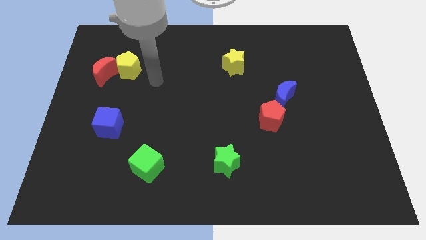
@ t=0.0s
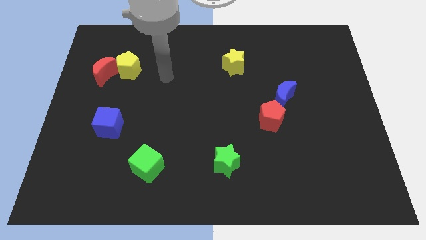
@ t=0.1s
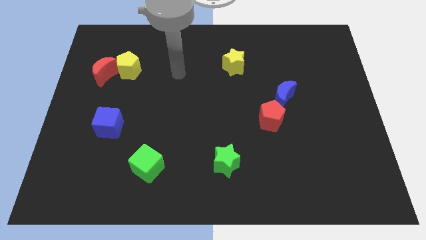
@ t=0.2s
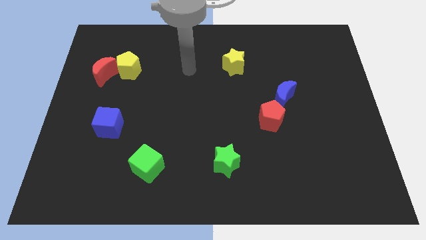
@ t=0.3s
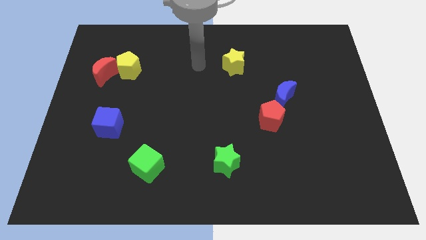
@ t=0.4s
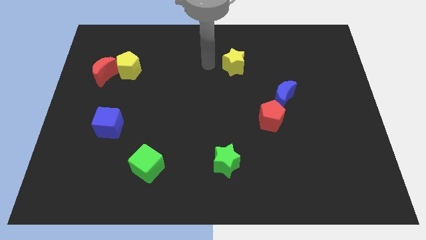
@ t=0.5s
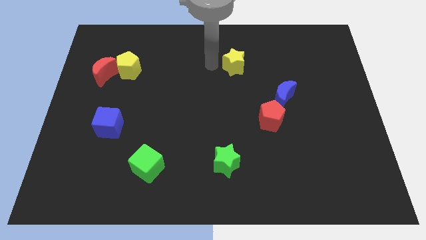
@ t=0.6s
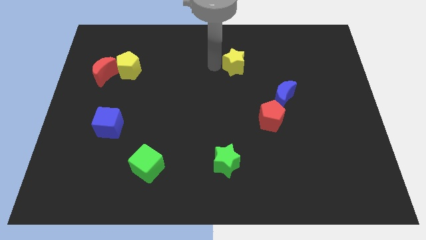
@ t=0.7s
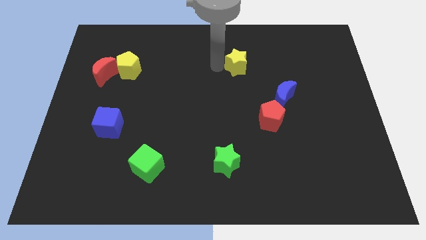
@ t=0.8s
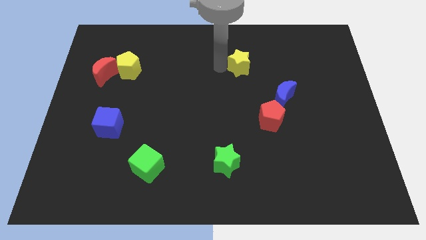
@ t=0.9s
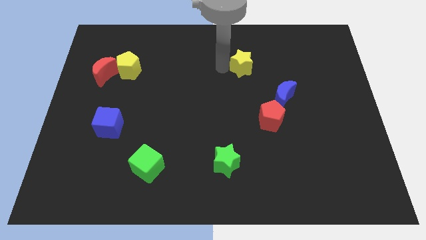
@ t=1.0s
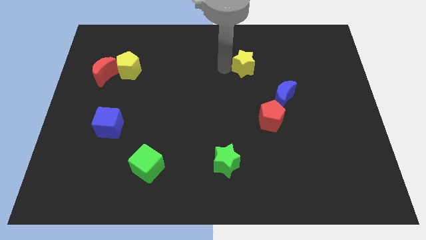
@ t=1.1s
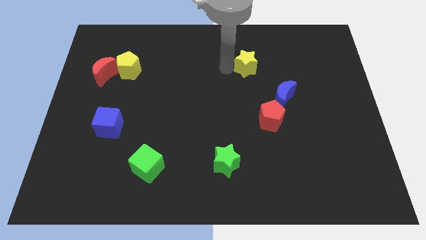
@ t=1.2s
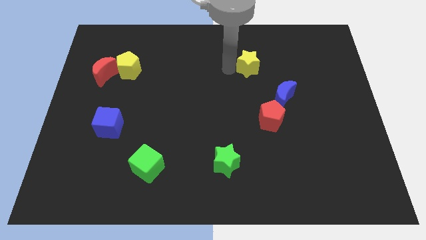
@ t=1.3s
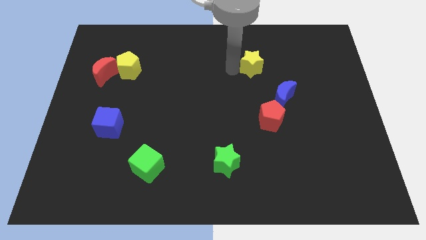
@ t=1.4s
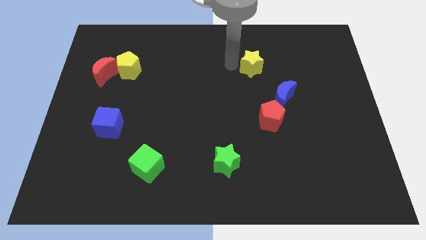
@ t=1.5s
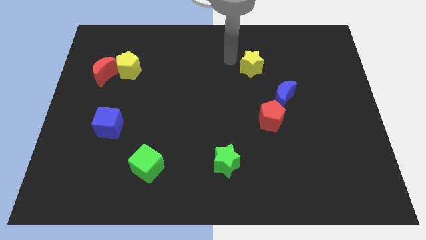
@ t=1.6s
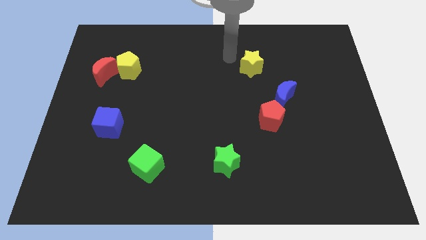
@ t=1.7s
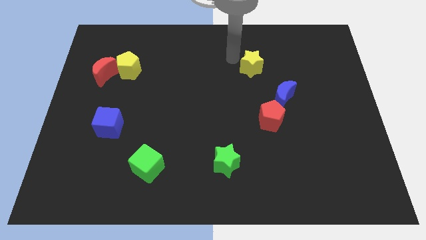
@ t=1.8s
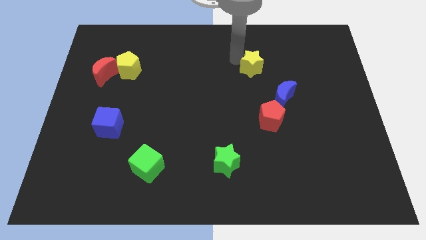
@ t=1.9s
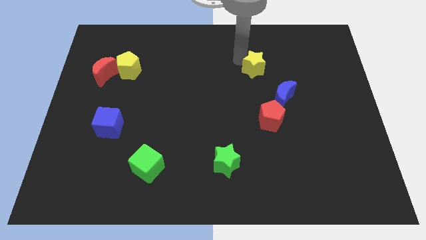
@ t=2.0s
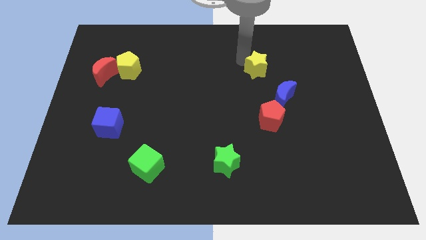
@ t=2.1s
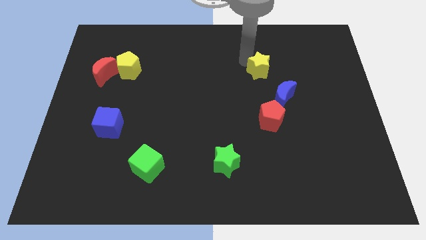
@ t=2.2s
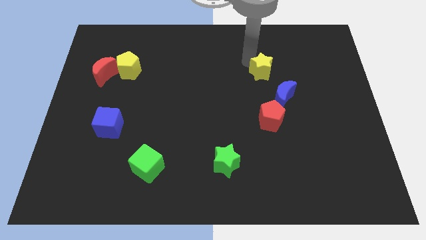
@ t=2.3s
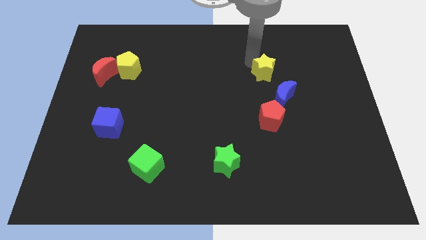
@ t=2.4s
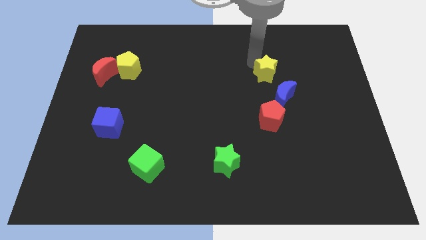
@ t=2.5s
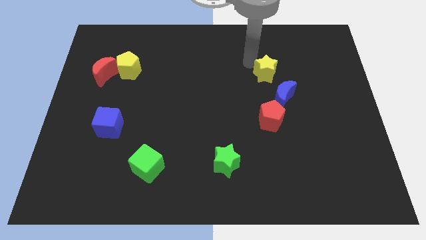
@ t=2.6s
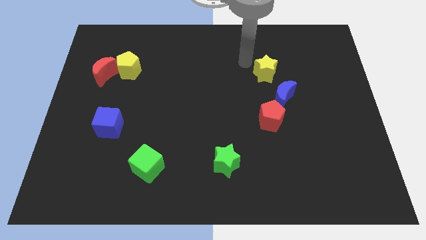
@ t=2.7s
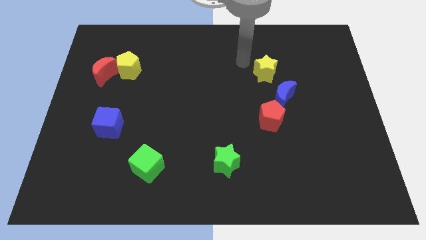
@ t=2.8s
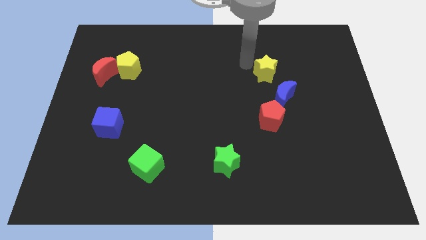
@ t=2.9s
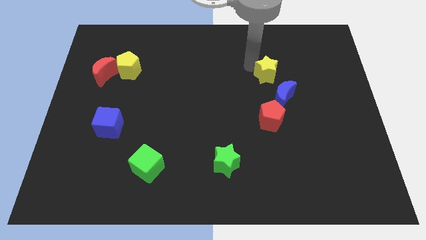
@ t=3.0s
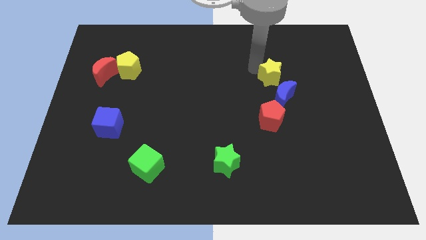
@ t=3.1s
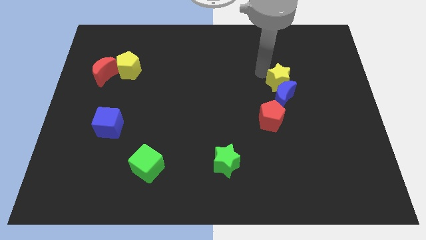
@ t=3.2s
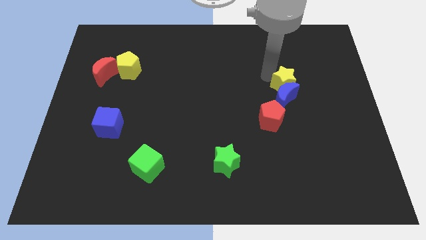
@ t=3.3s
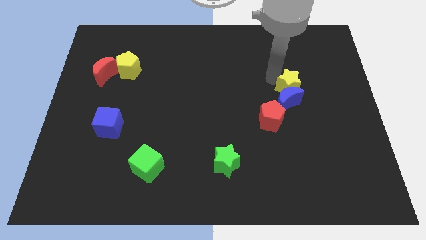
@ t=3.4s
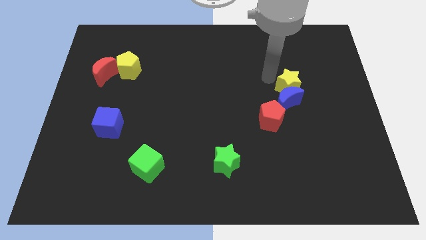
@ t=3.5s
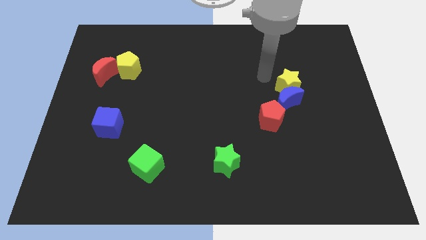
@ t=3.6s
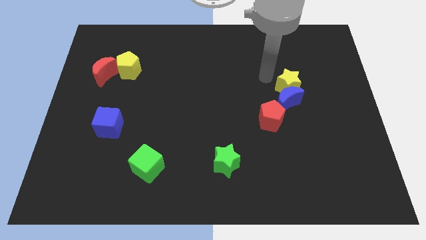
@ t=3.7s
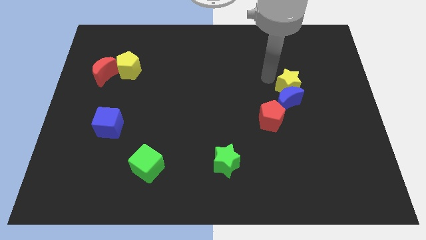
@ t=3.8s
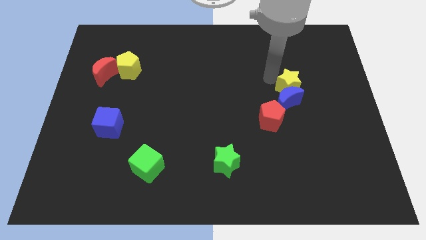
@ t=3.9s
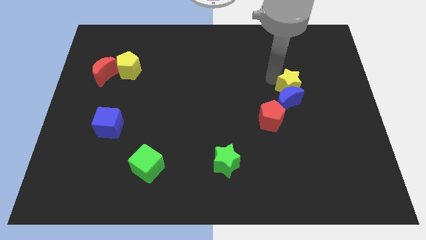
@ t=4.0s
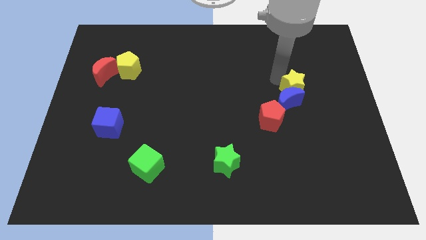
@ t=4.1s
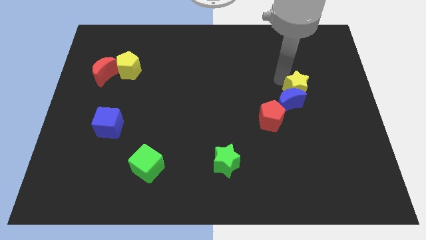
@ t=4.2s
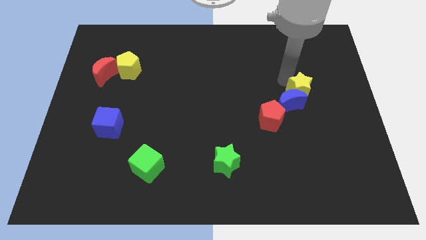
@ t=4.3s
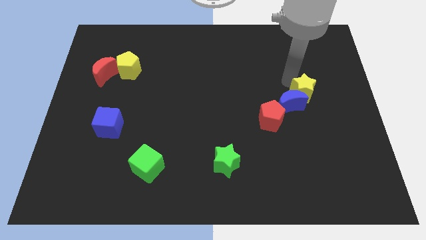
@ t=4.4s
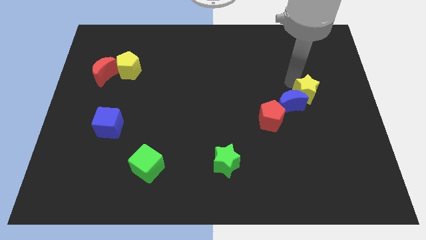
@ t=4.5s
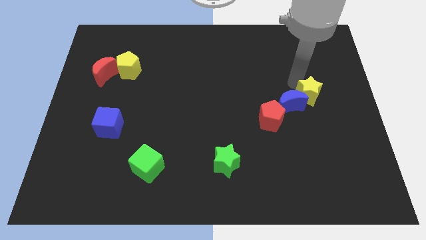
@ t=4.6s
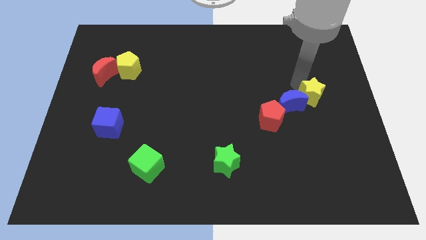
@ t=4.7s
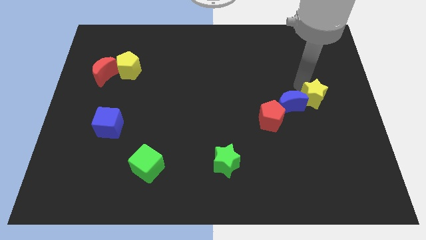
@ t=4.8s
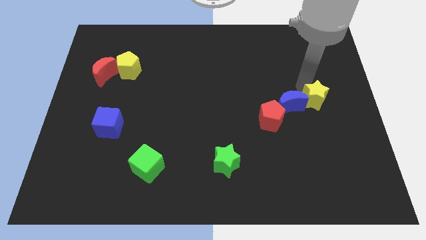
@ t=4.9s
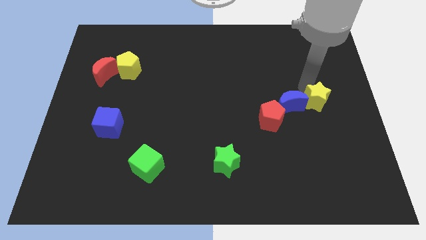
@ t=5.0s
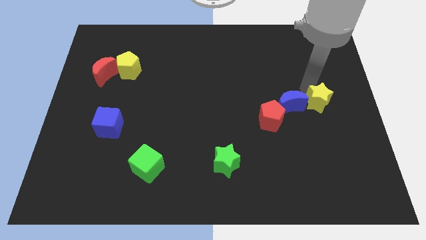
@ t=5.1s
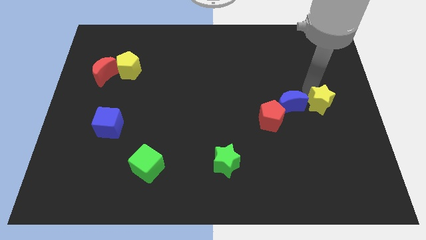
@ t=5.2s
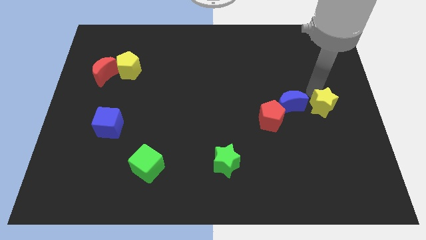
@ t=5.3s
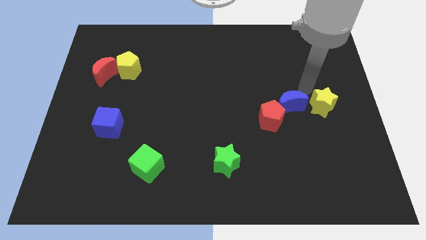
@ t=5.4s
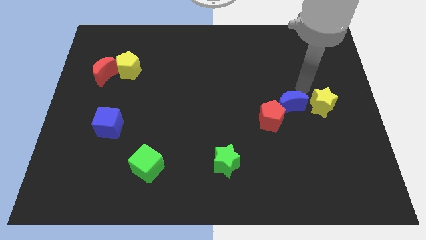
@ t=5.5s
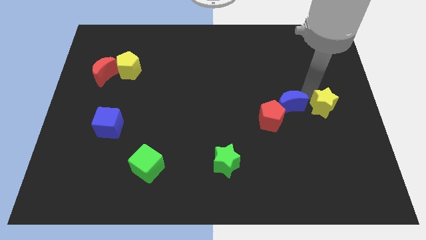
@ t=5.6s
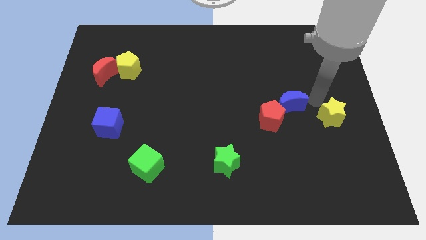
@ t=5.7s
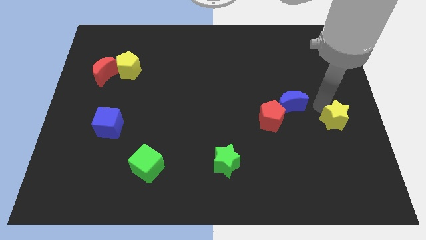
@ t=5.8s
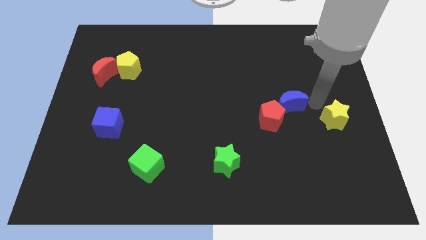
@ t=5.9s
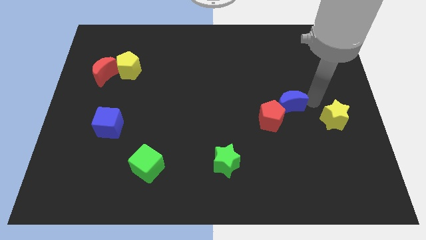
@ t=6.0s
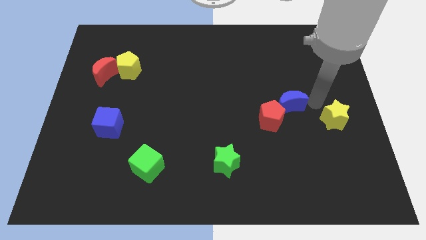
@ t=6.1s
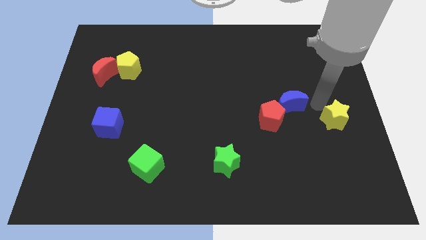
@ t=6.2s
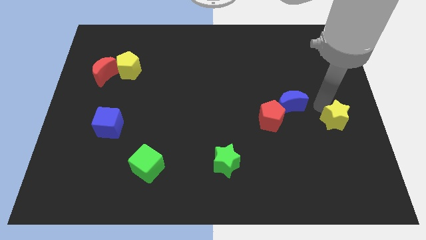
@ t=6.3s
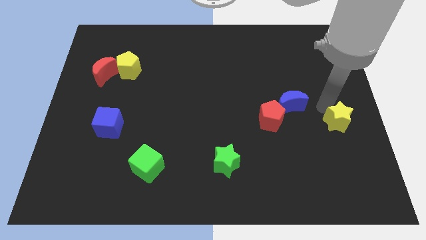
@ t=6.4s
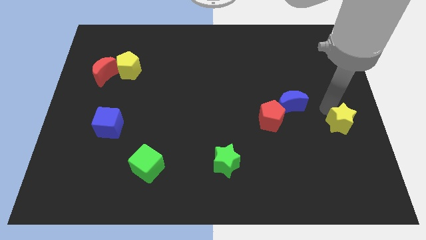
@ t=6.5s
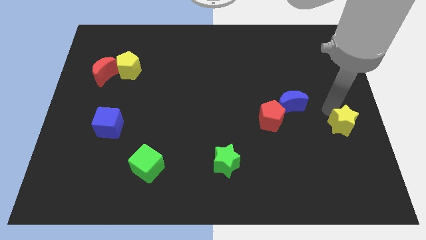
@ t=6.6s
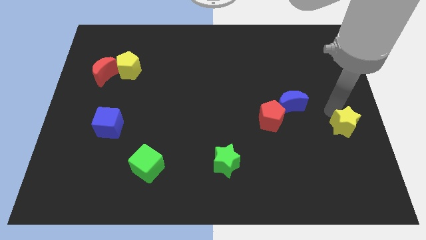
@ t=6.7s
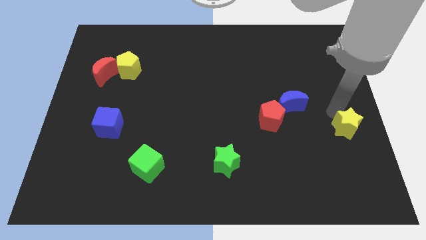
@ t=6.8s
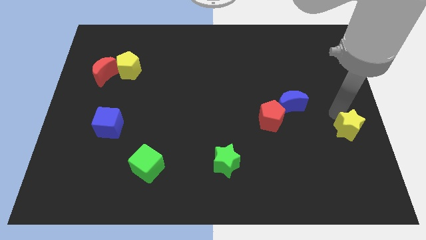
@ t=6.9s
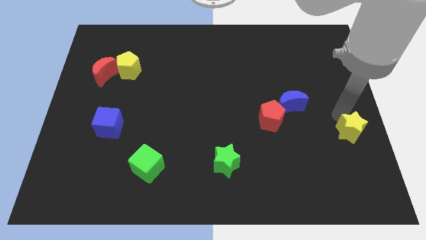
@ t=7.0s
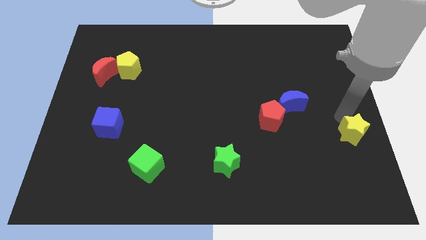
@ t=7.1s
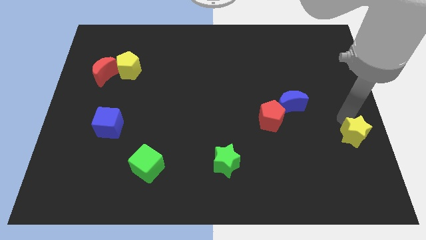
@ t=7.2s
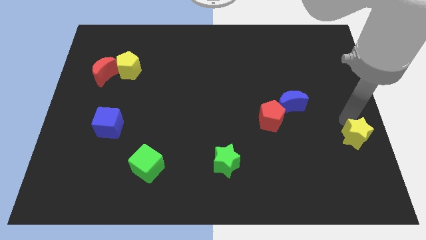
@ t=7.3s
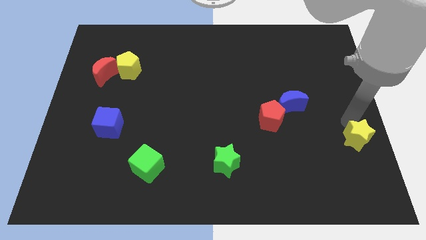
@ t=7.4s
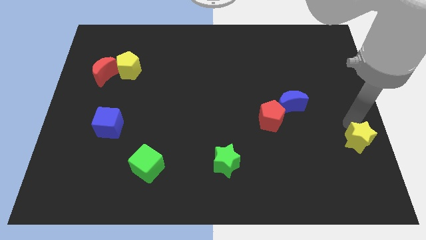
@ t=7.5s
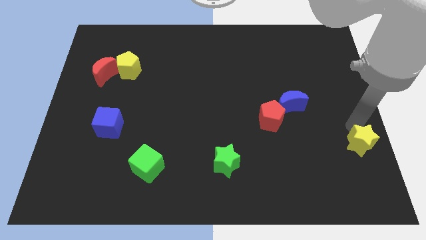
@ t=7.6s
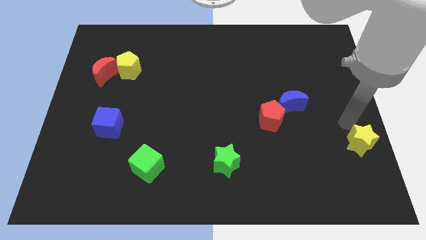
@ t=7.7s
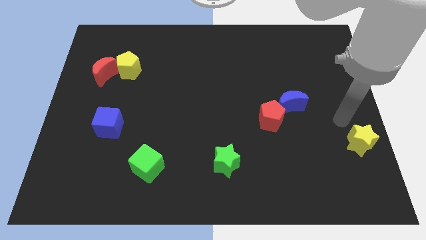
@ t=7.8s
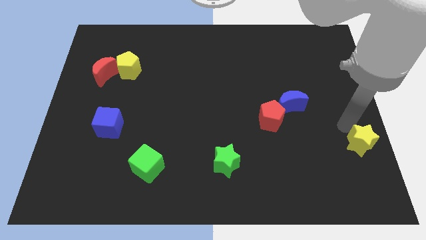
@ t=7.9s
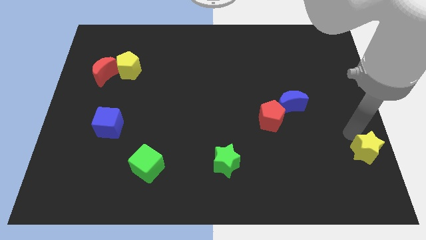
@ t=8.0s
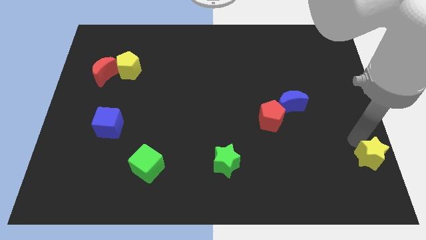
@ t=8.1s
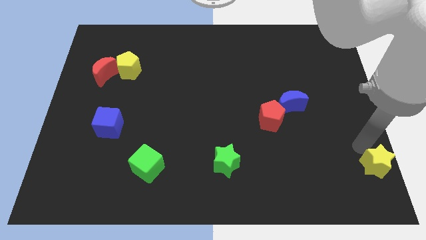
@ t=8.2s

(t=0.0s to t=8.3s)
slide the yellow star to the bottom right
